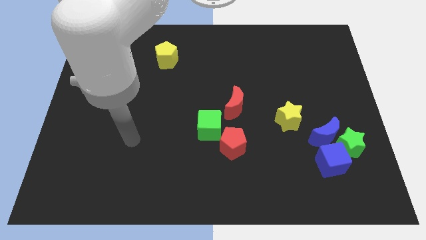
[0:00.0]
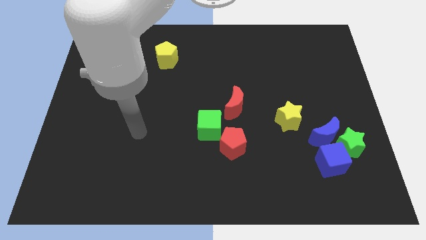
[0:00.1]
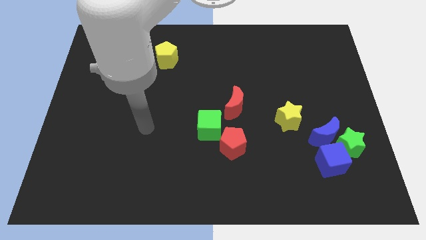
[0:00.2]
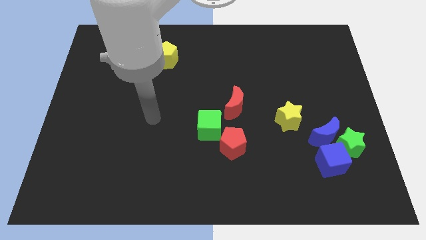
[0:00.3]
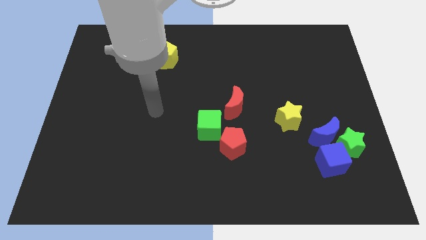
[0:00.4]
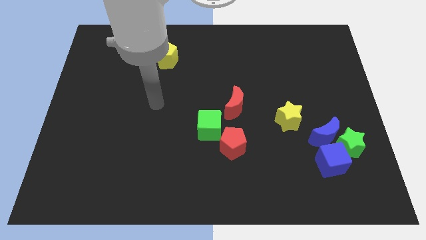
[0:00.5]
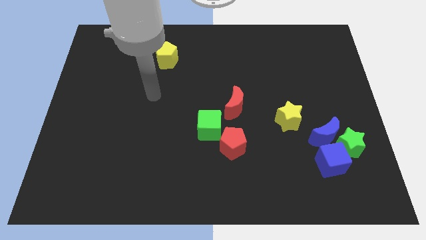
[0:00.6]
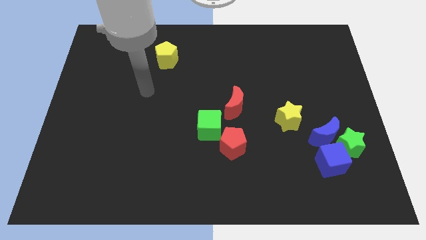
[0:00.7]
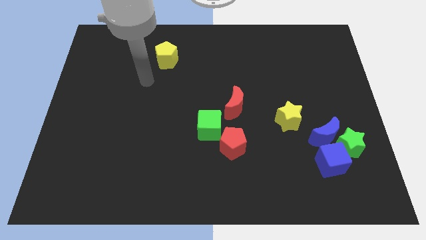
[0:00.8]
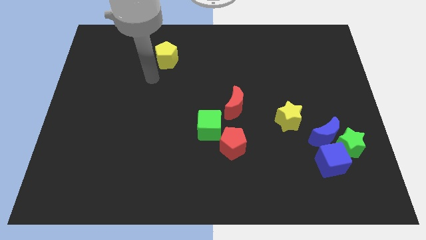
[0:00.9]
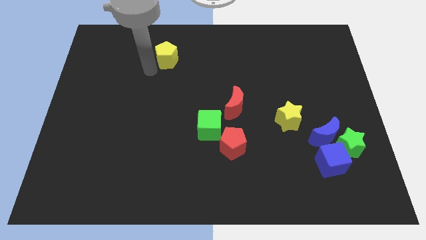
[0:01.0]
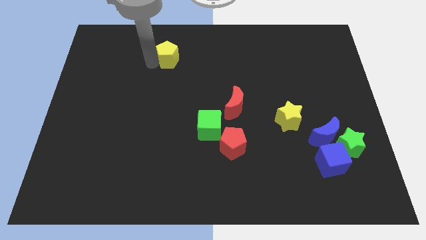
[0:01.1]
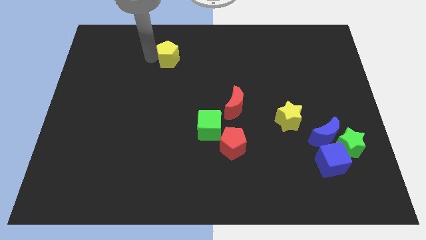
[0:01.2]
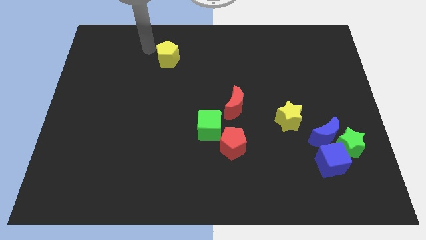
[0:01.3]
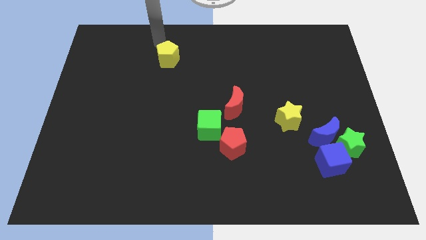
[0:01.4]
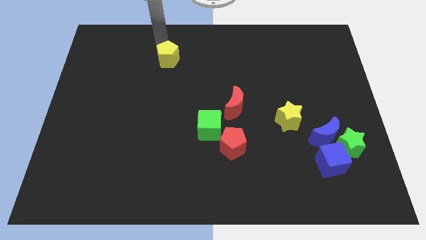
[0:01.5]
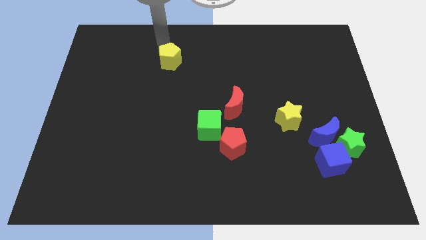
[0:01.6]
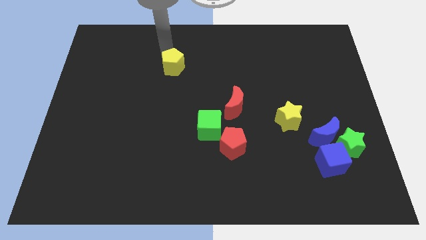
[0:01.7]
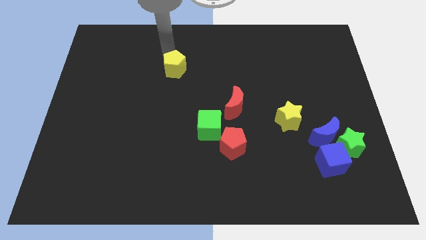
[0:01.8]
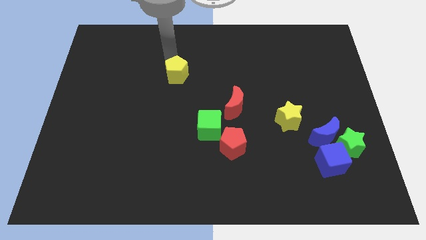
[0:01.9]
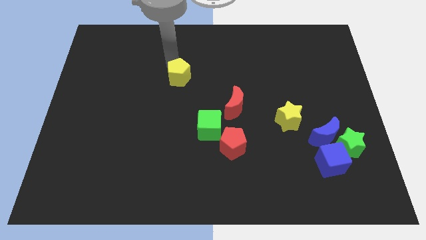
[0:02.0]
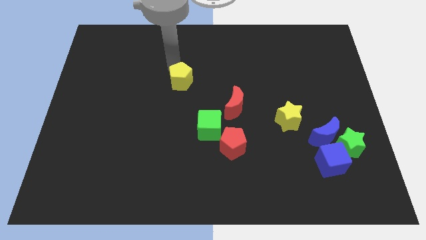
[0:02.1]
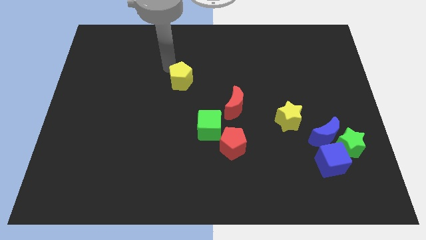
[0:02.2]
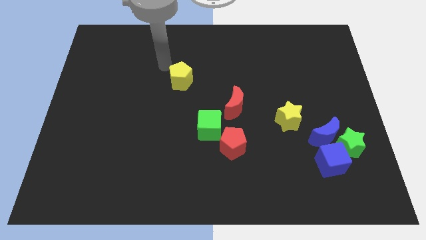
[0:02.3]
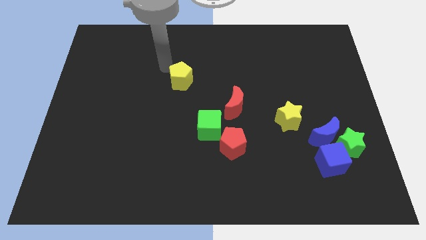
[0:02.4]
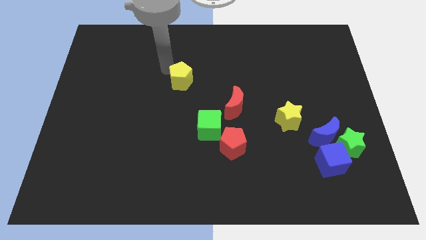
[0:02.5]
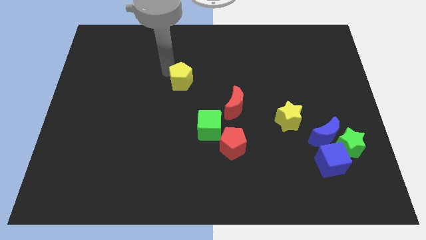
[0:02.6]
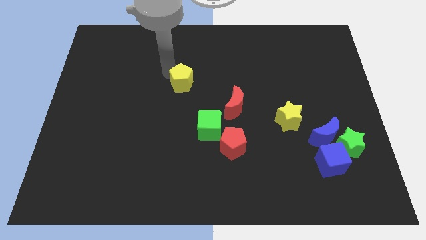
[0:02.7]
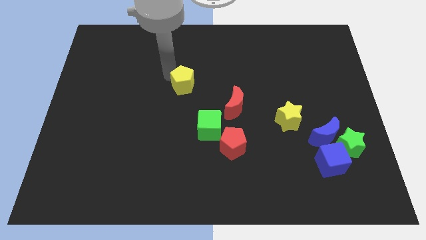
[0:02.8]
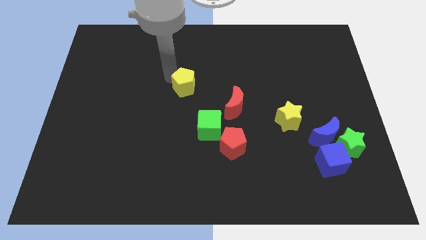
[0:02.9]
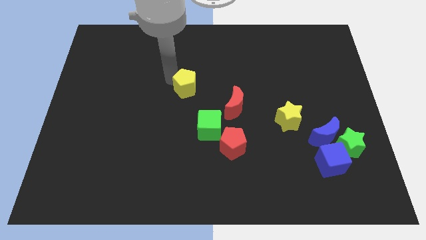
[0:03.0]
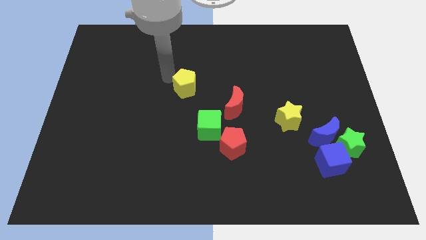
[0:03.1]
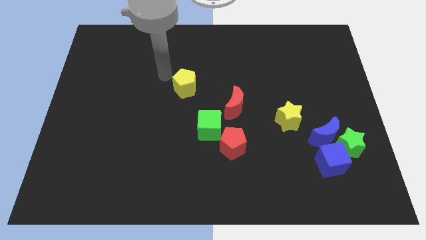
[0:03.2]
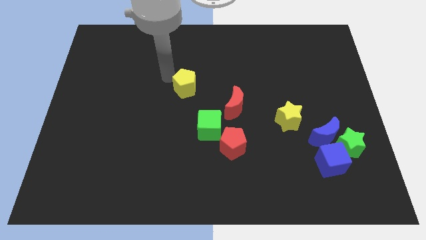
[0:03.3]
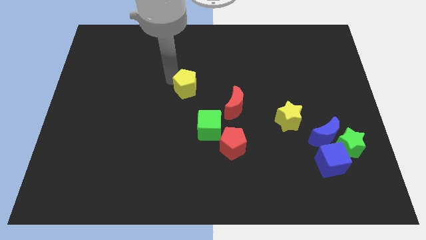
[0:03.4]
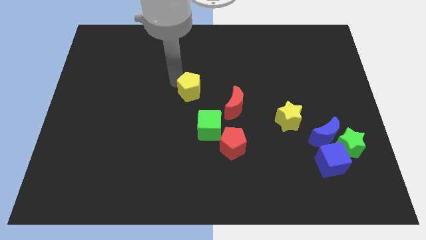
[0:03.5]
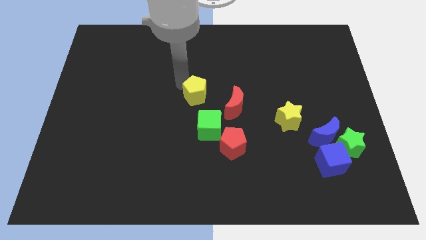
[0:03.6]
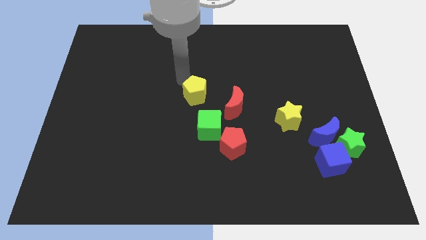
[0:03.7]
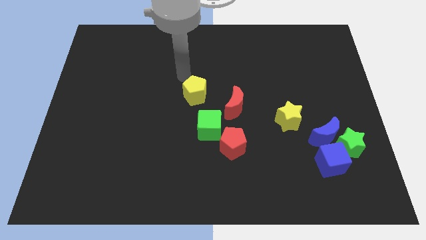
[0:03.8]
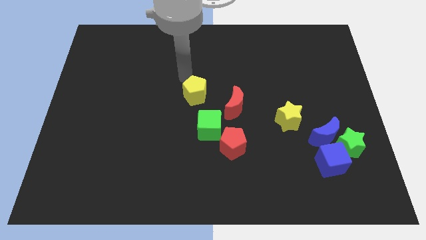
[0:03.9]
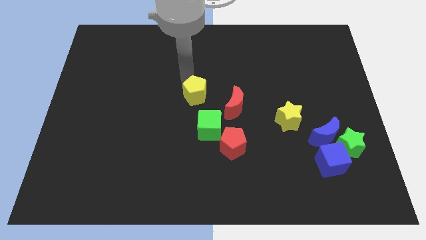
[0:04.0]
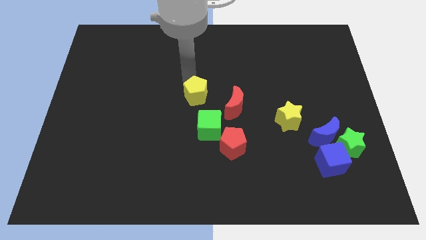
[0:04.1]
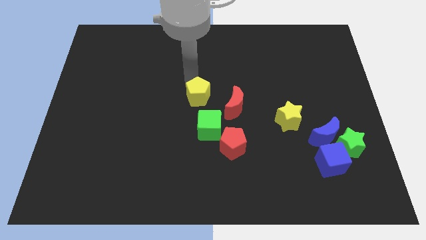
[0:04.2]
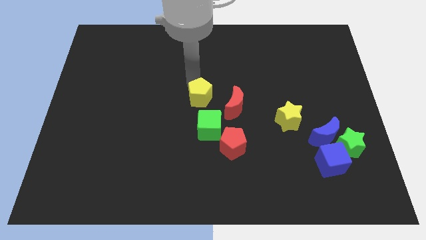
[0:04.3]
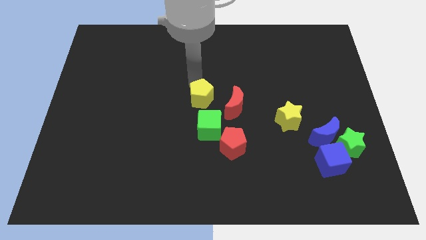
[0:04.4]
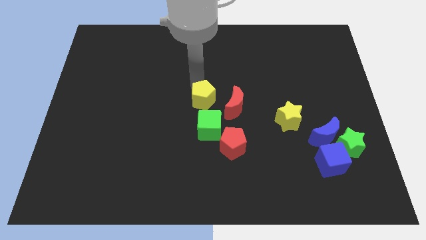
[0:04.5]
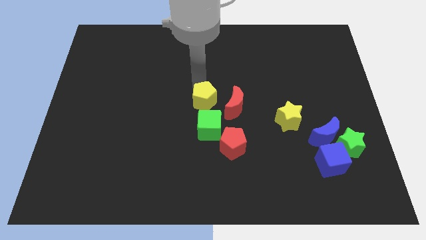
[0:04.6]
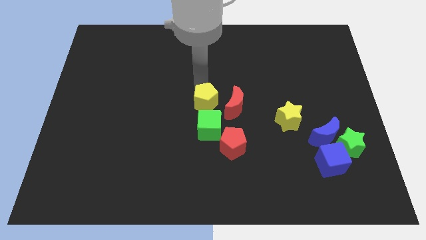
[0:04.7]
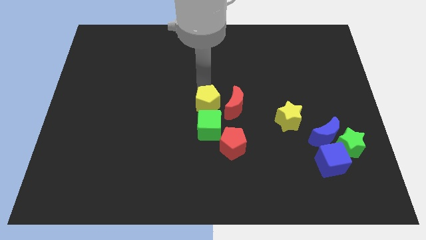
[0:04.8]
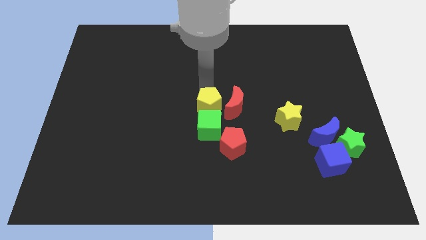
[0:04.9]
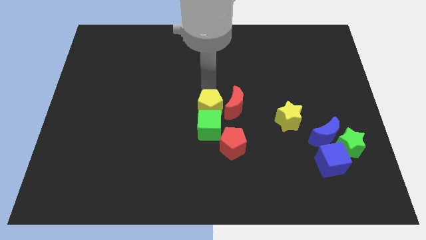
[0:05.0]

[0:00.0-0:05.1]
slide the yellow pentagon towards the green cube

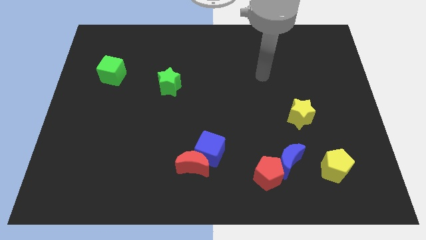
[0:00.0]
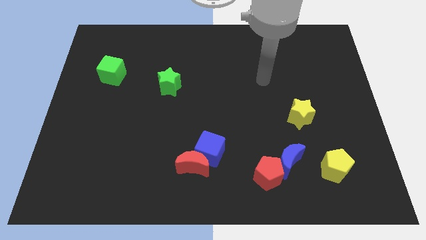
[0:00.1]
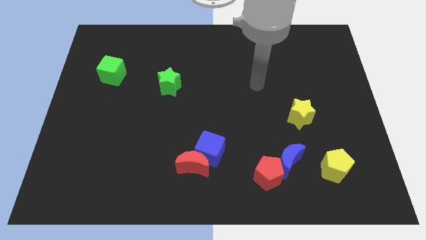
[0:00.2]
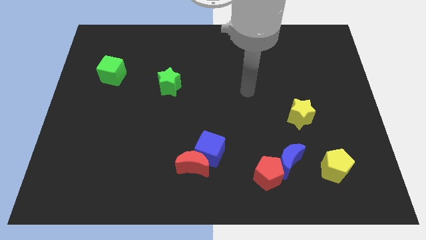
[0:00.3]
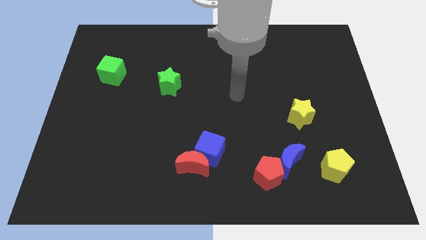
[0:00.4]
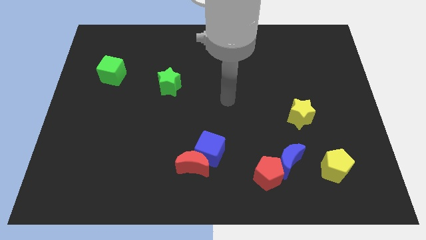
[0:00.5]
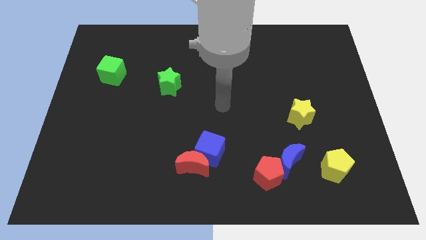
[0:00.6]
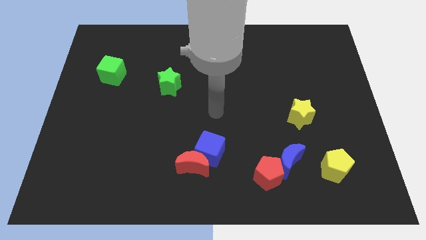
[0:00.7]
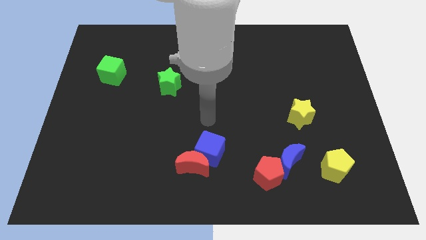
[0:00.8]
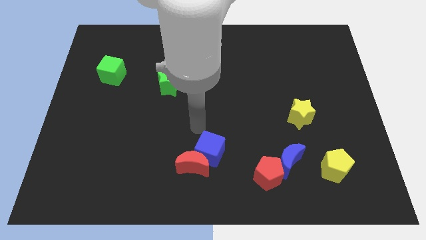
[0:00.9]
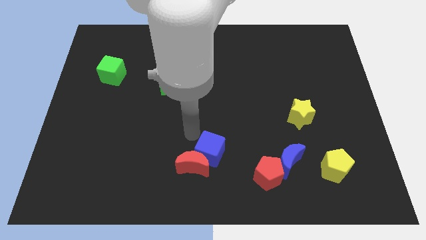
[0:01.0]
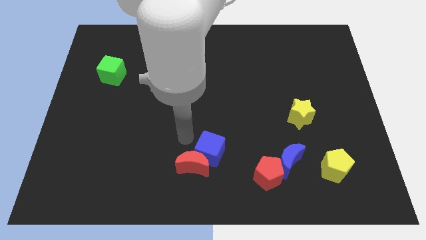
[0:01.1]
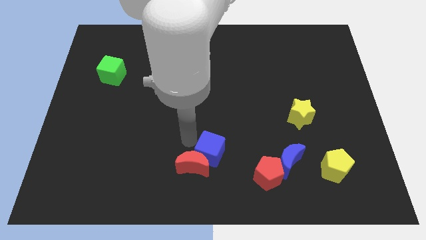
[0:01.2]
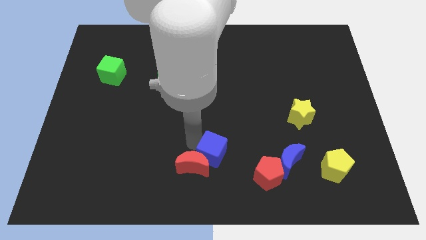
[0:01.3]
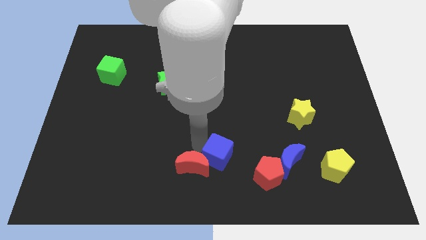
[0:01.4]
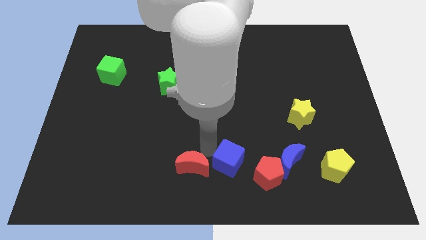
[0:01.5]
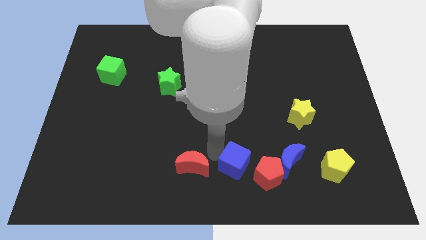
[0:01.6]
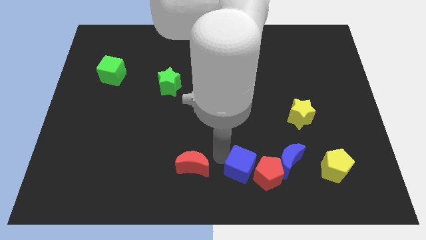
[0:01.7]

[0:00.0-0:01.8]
move the blue cube towards the red pentagon
